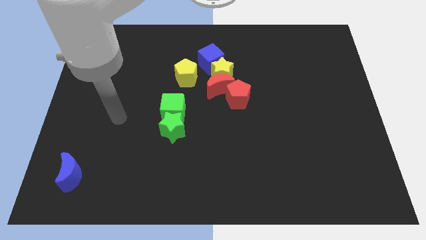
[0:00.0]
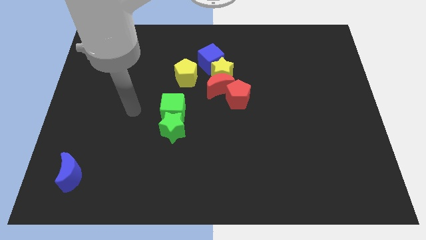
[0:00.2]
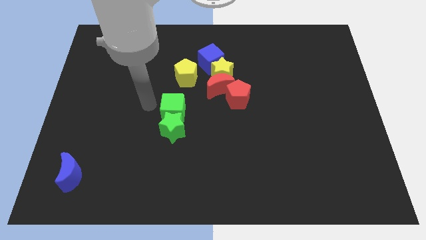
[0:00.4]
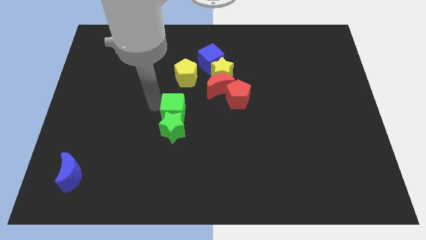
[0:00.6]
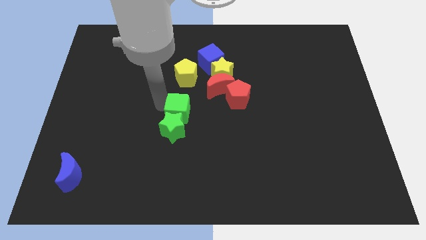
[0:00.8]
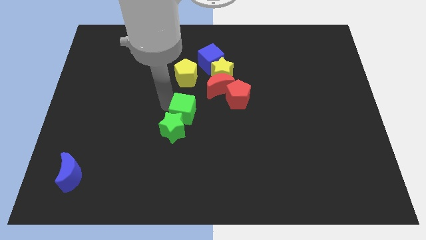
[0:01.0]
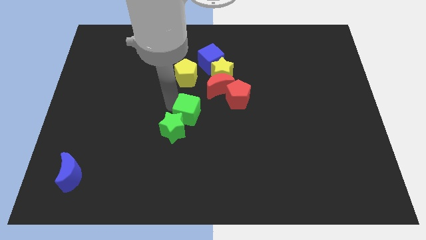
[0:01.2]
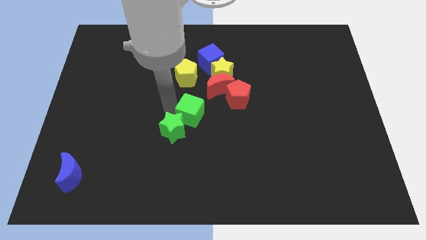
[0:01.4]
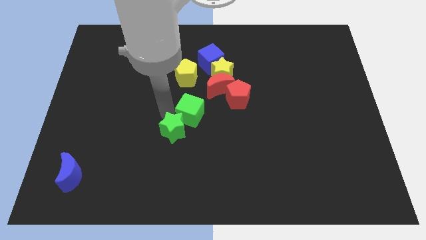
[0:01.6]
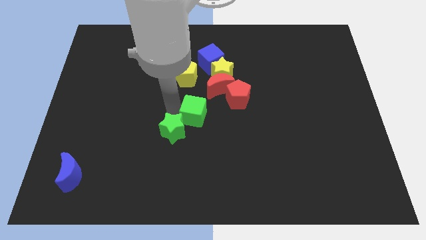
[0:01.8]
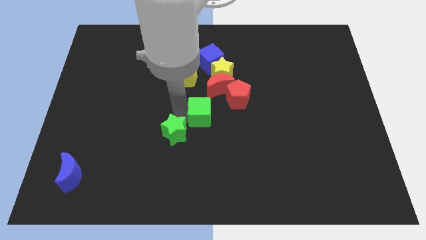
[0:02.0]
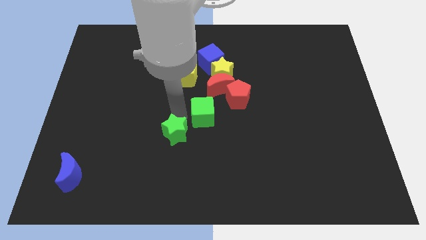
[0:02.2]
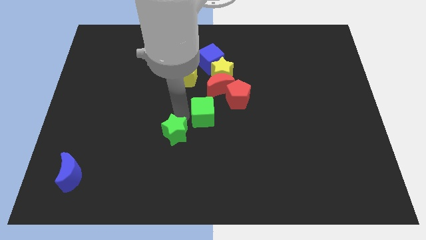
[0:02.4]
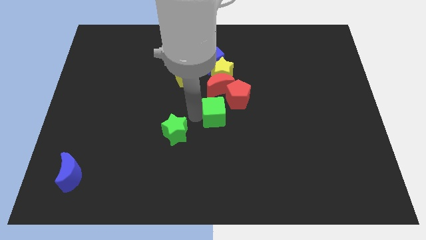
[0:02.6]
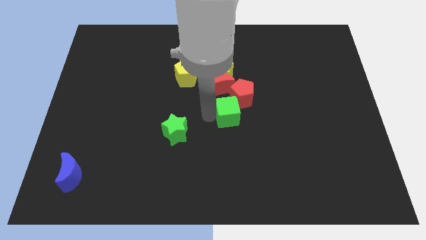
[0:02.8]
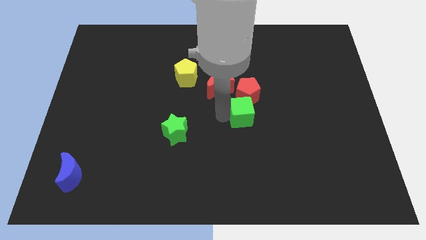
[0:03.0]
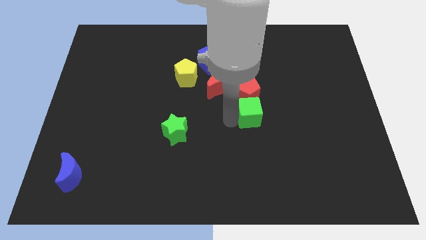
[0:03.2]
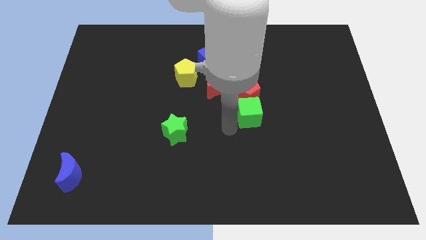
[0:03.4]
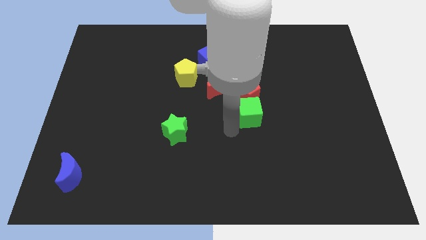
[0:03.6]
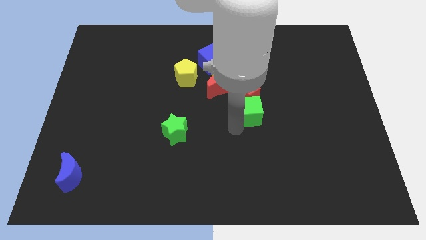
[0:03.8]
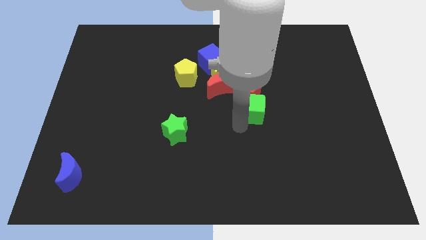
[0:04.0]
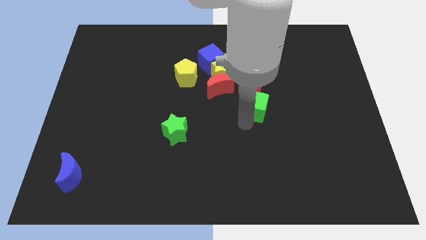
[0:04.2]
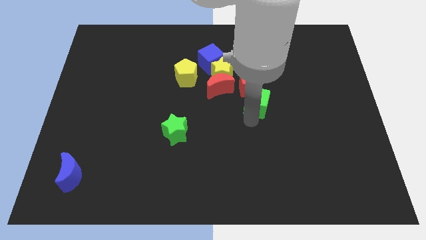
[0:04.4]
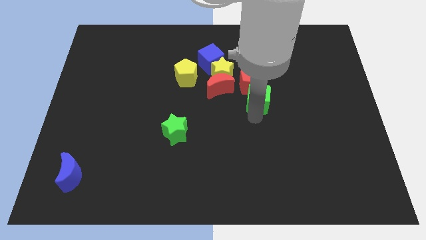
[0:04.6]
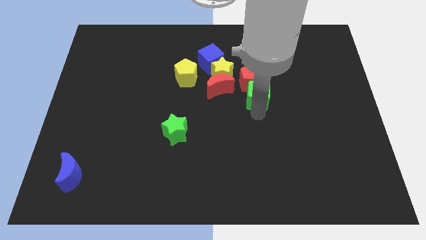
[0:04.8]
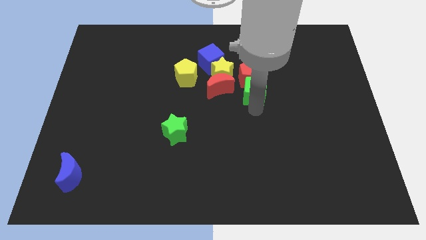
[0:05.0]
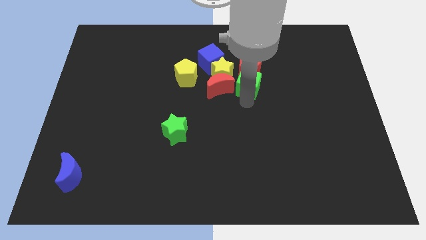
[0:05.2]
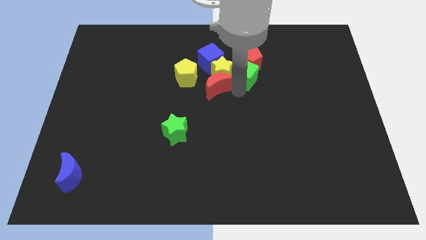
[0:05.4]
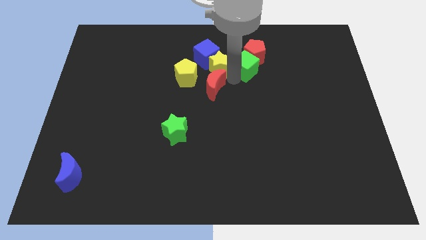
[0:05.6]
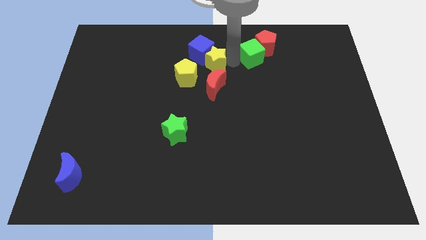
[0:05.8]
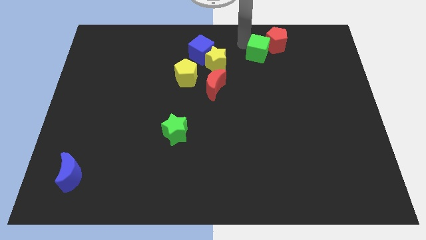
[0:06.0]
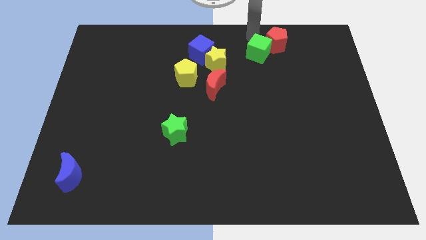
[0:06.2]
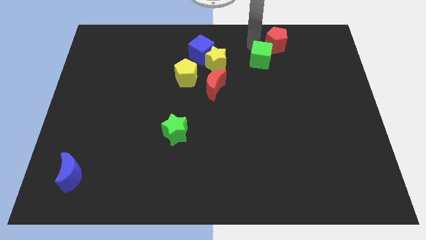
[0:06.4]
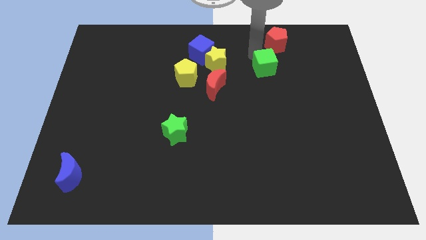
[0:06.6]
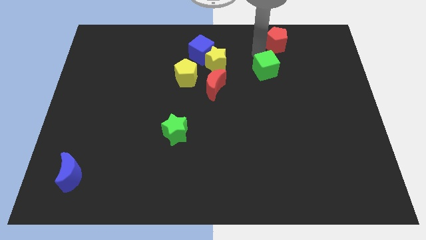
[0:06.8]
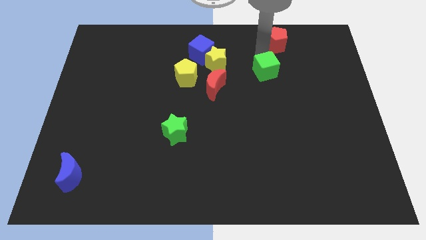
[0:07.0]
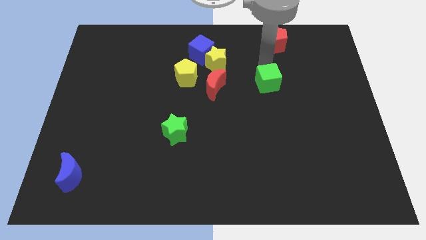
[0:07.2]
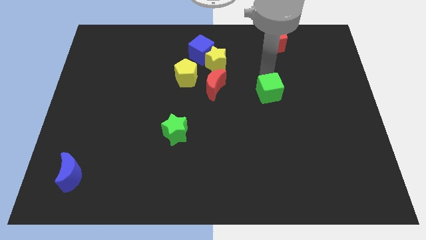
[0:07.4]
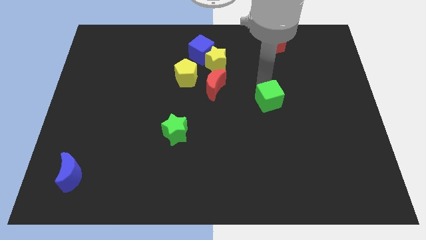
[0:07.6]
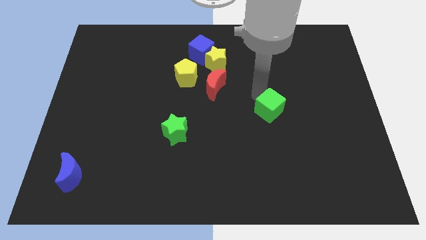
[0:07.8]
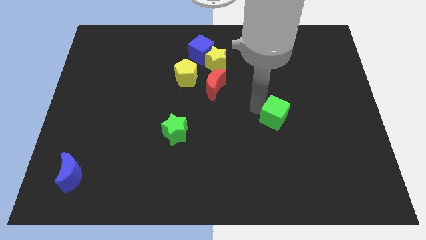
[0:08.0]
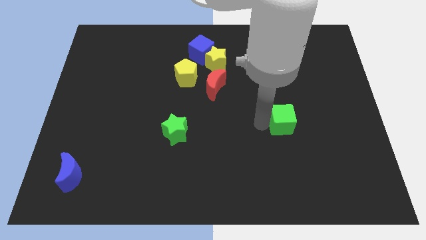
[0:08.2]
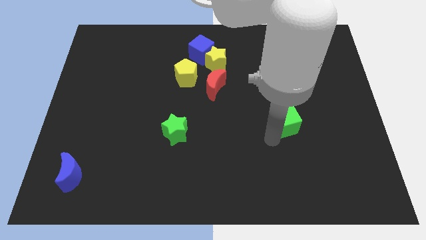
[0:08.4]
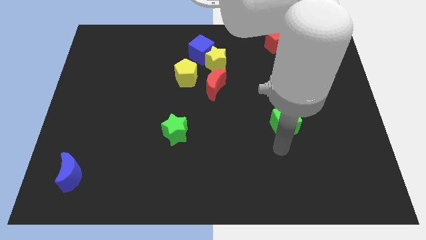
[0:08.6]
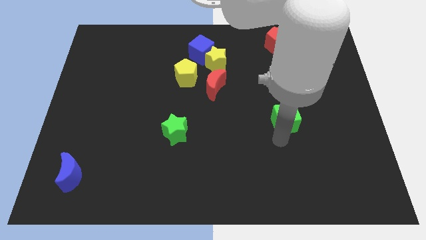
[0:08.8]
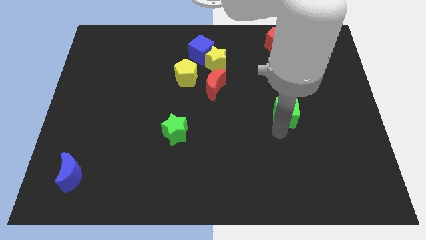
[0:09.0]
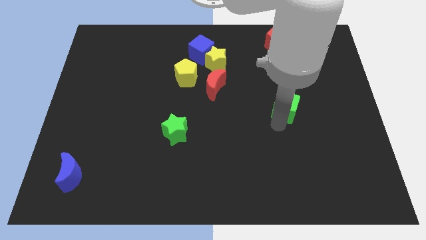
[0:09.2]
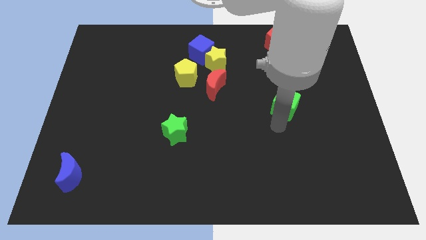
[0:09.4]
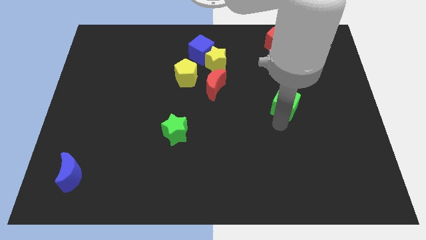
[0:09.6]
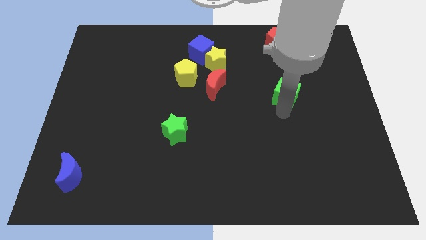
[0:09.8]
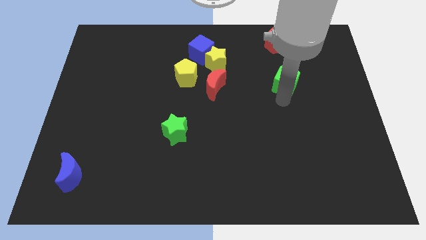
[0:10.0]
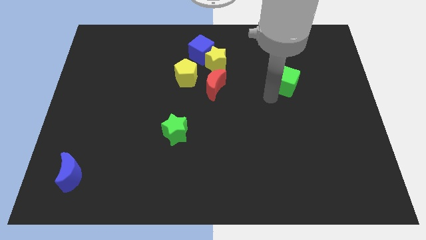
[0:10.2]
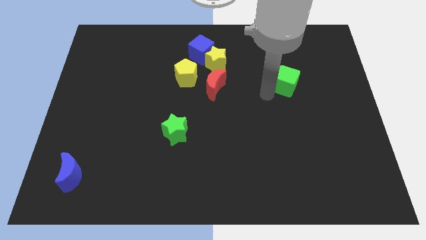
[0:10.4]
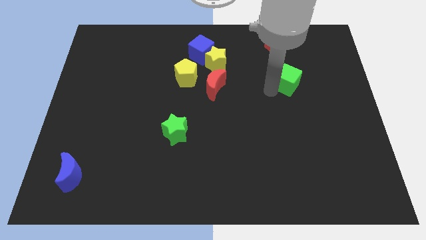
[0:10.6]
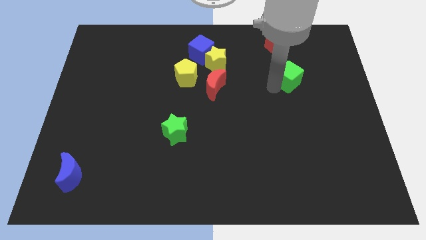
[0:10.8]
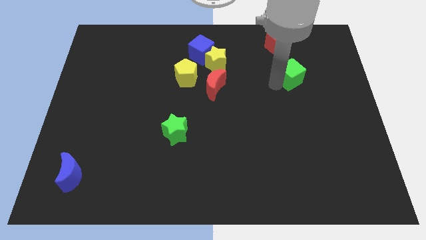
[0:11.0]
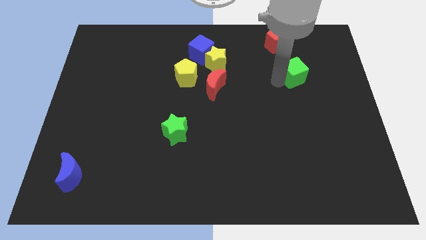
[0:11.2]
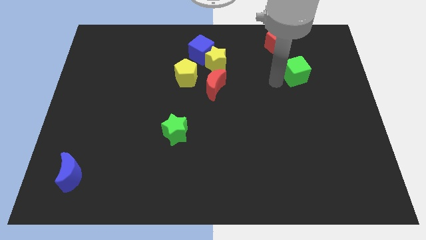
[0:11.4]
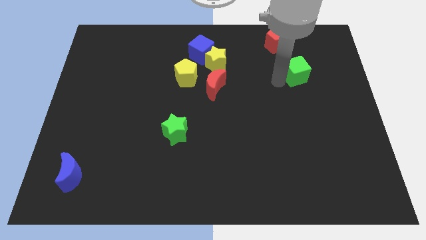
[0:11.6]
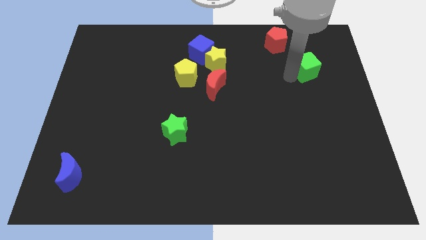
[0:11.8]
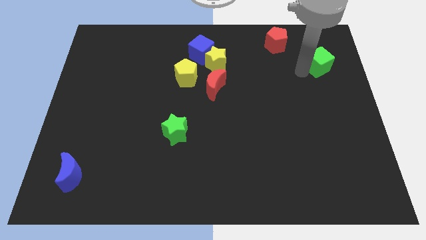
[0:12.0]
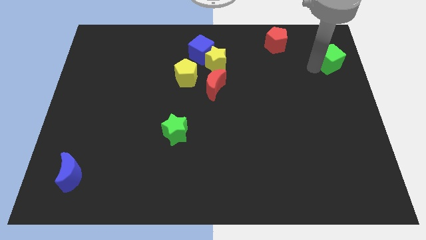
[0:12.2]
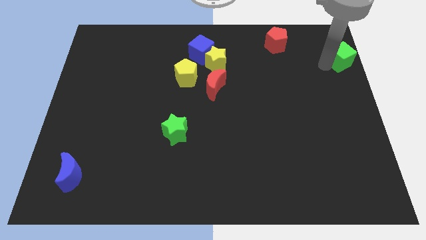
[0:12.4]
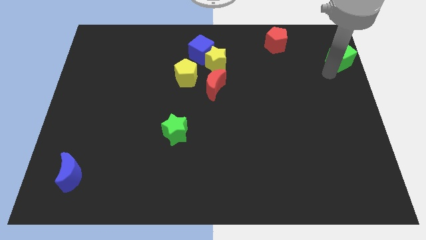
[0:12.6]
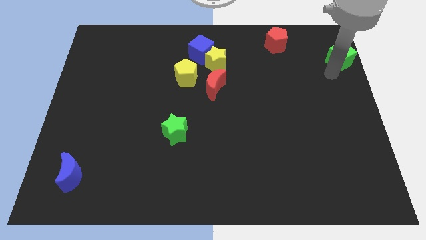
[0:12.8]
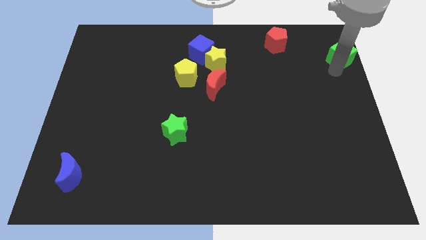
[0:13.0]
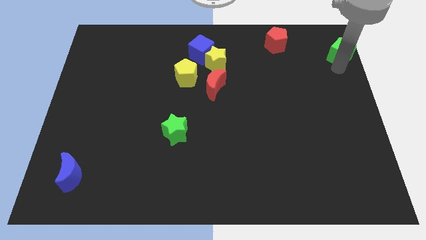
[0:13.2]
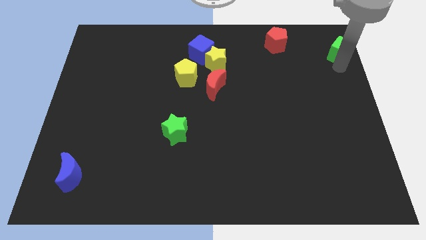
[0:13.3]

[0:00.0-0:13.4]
push the green cube to the top right
